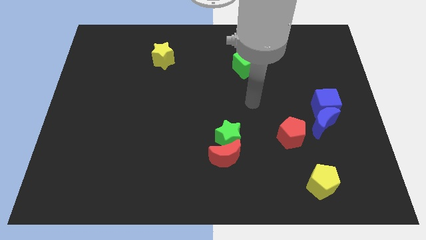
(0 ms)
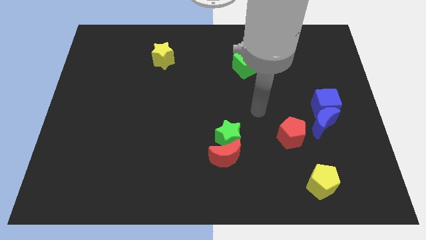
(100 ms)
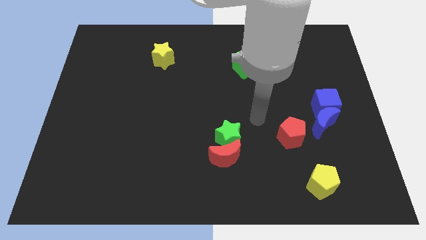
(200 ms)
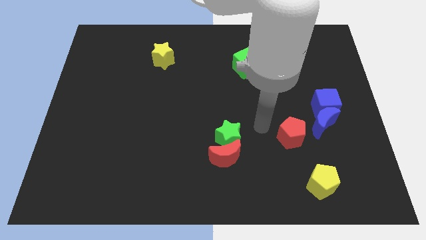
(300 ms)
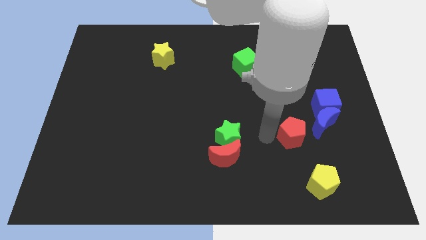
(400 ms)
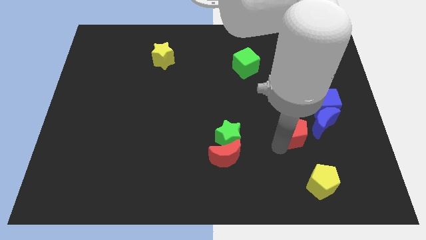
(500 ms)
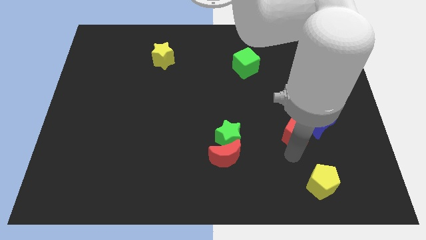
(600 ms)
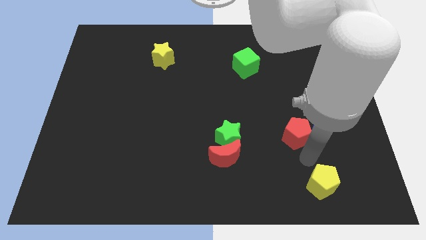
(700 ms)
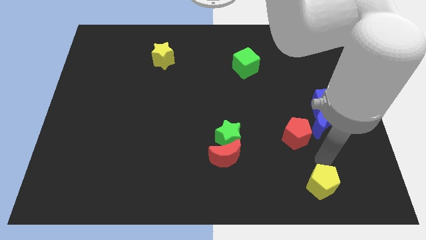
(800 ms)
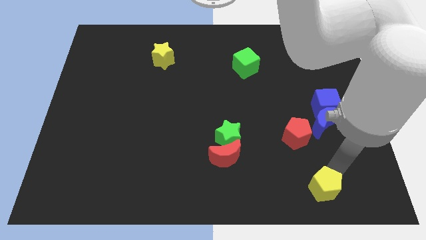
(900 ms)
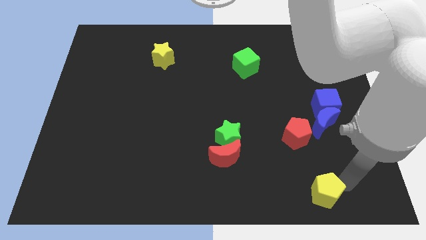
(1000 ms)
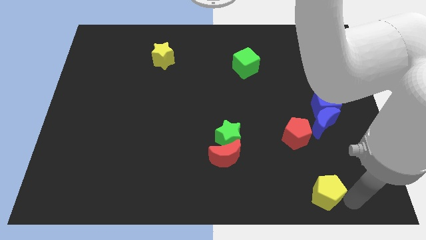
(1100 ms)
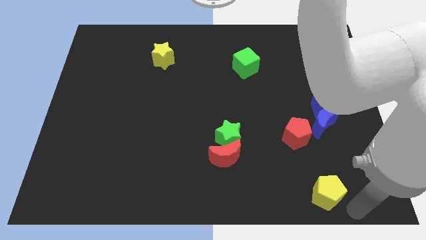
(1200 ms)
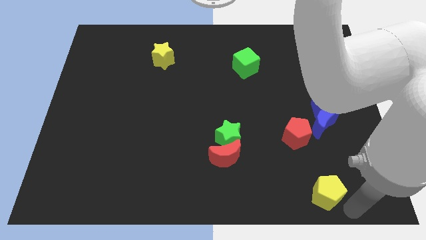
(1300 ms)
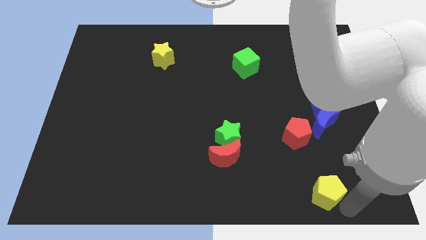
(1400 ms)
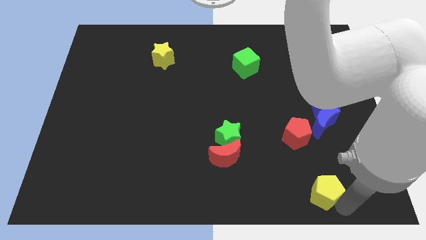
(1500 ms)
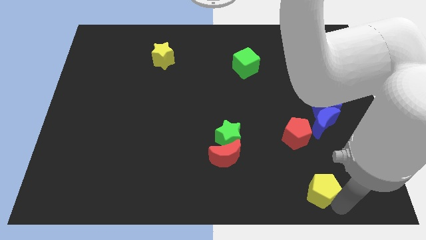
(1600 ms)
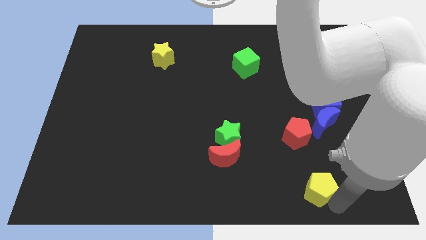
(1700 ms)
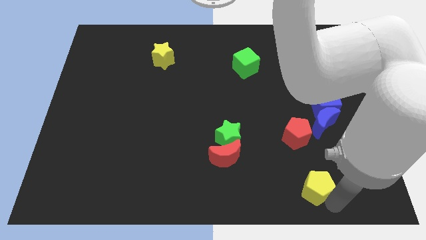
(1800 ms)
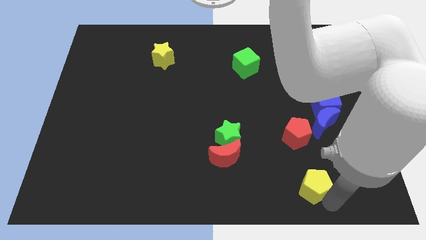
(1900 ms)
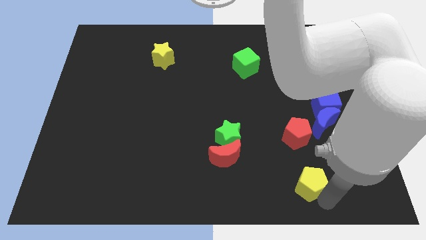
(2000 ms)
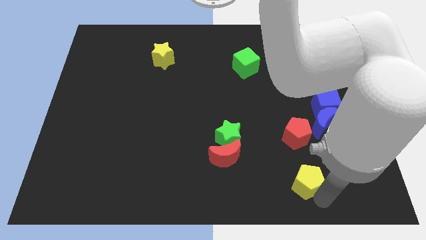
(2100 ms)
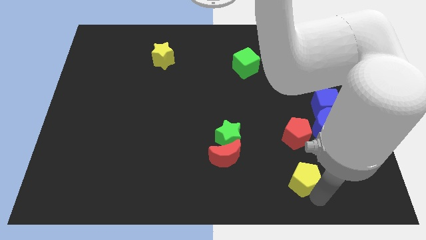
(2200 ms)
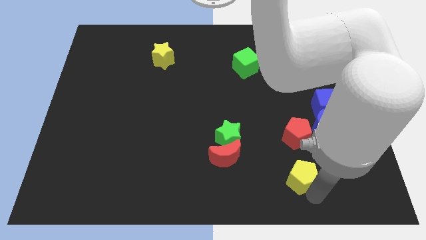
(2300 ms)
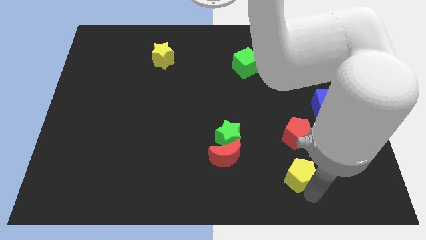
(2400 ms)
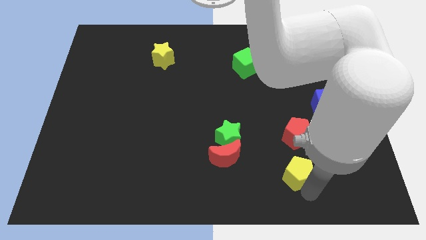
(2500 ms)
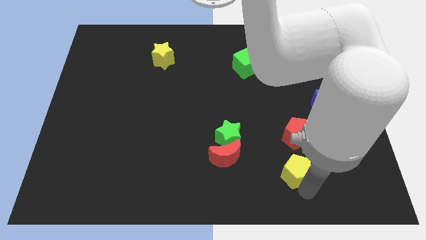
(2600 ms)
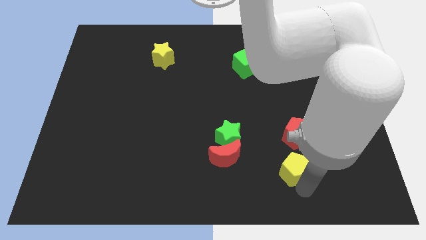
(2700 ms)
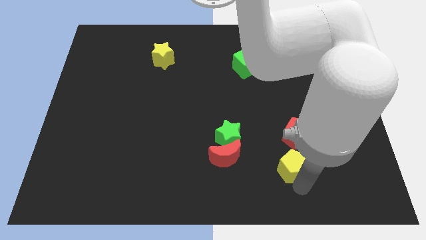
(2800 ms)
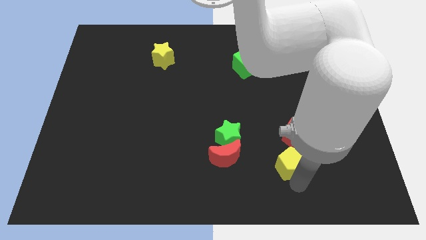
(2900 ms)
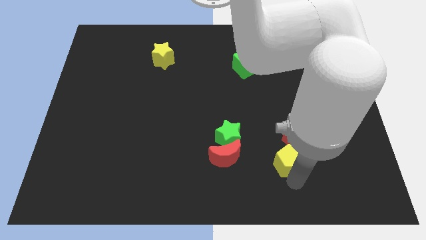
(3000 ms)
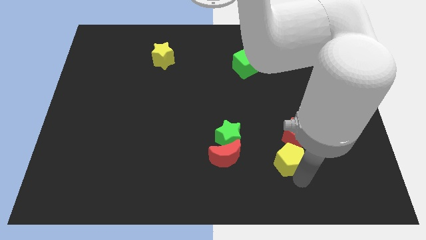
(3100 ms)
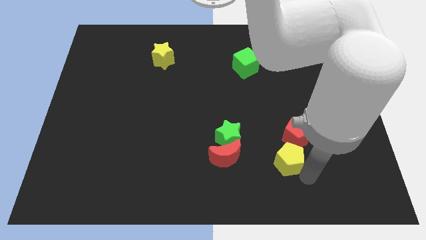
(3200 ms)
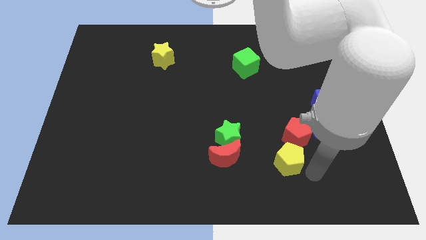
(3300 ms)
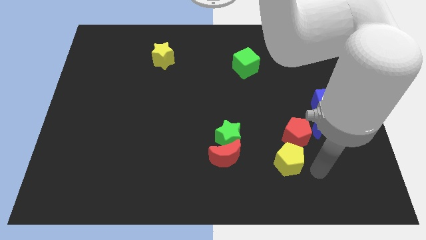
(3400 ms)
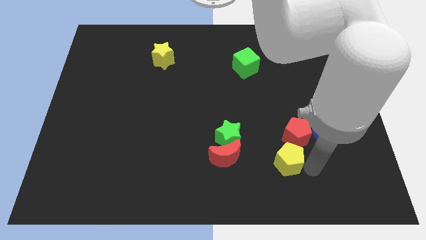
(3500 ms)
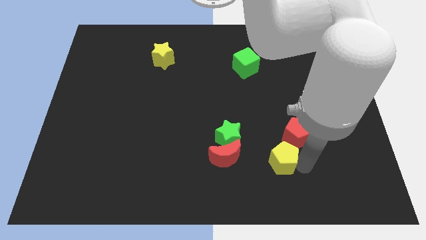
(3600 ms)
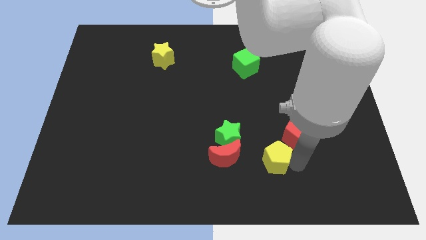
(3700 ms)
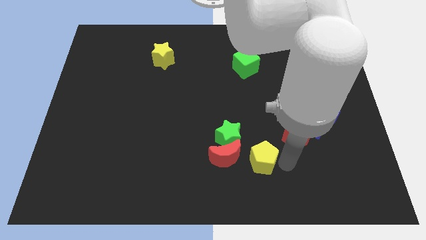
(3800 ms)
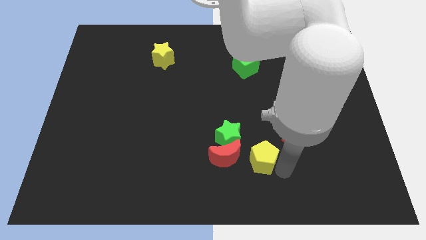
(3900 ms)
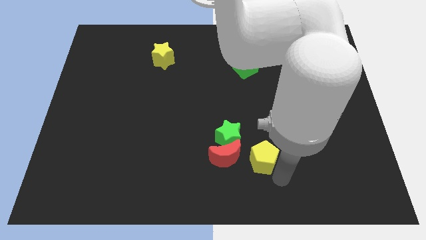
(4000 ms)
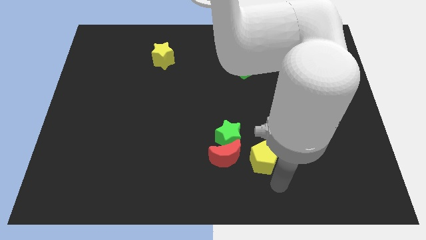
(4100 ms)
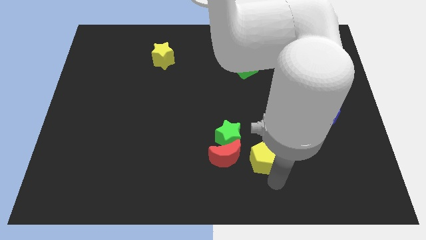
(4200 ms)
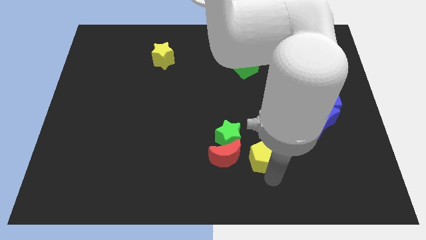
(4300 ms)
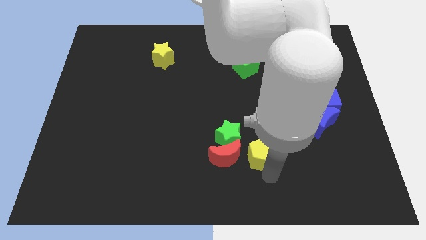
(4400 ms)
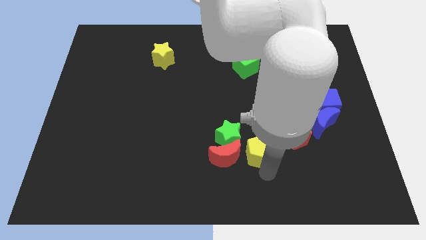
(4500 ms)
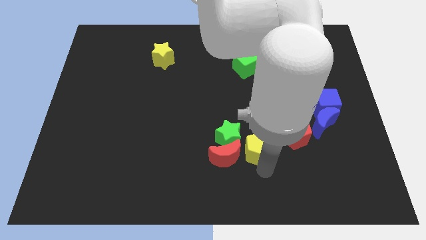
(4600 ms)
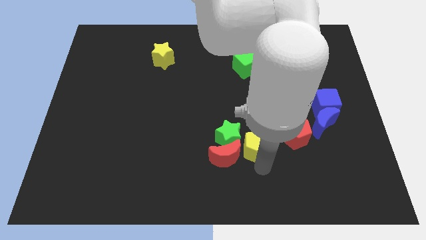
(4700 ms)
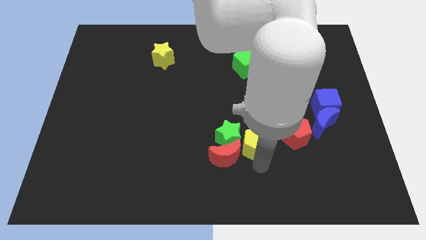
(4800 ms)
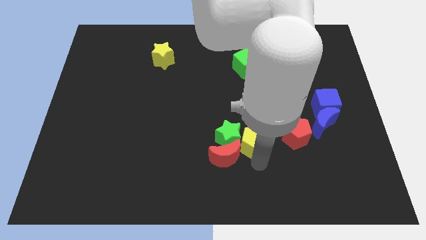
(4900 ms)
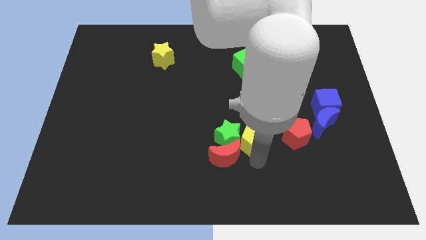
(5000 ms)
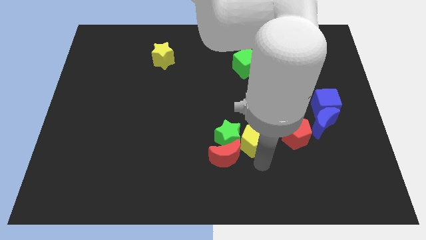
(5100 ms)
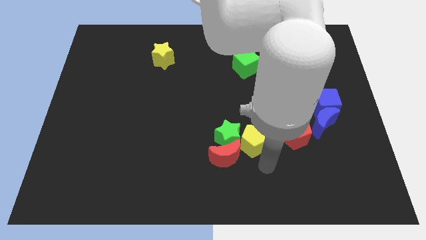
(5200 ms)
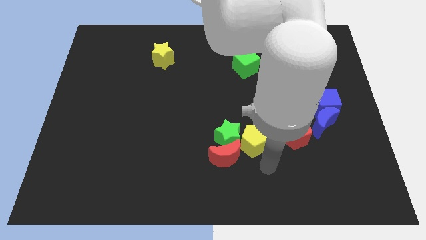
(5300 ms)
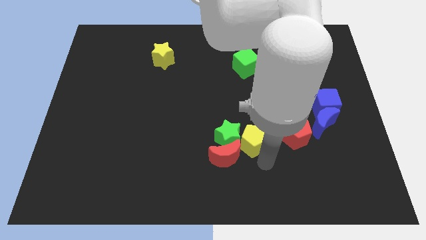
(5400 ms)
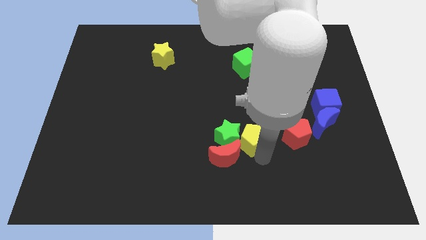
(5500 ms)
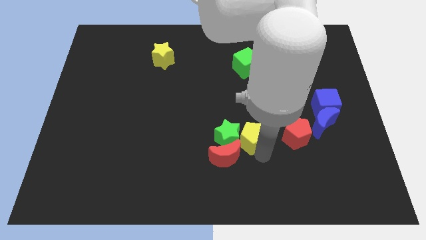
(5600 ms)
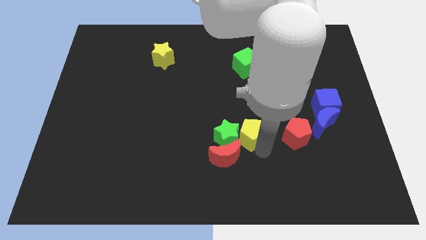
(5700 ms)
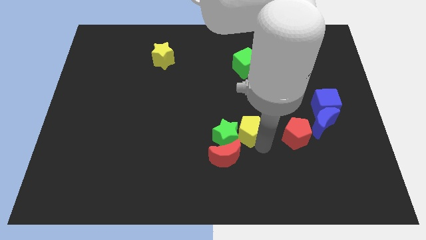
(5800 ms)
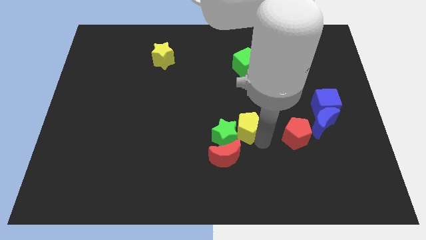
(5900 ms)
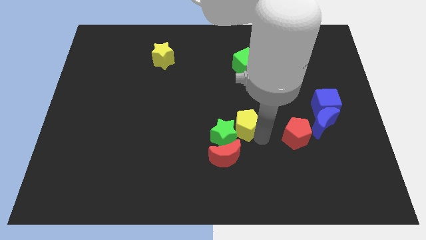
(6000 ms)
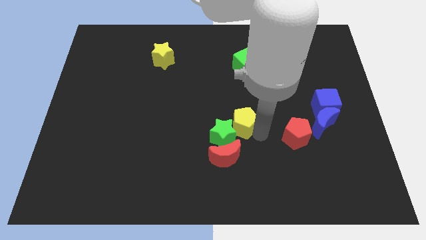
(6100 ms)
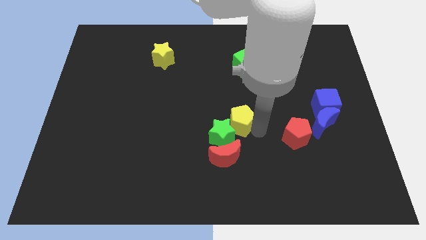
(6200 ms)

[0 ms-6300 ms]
push the yellow pentagon to the top side of the green star
